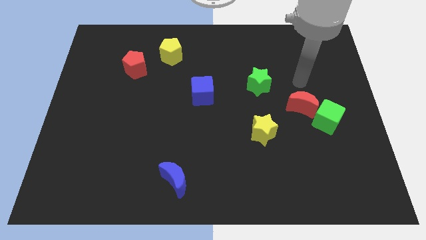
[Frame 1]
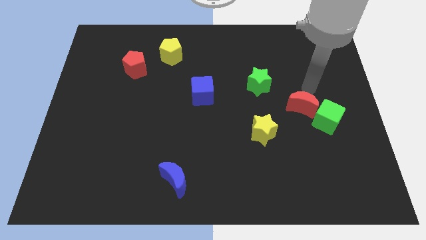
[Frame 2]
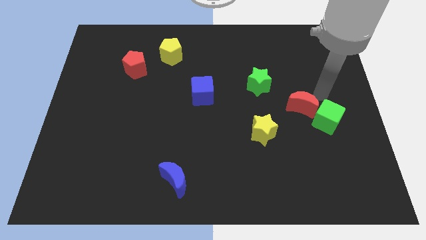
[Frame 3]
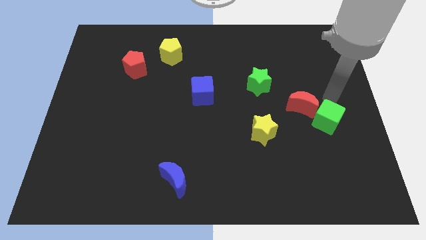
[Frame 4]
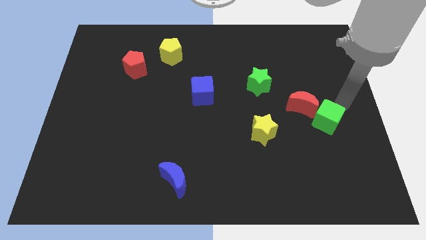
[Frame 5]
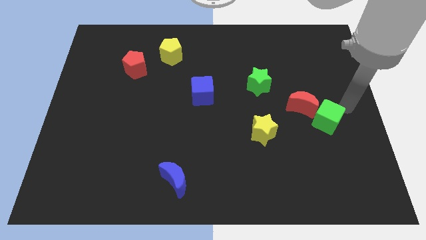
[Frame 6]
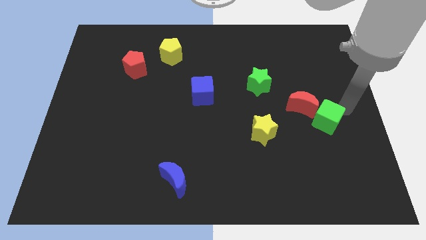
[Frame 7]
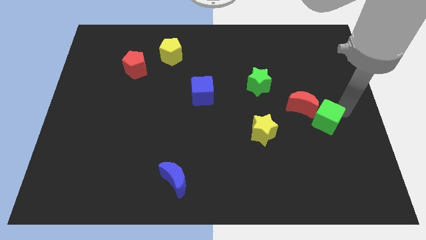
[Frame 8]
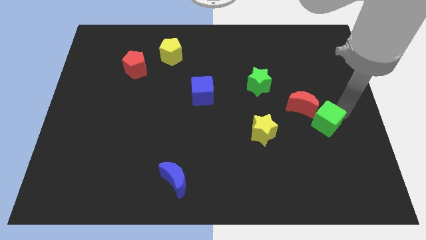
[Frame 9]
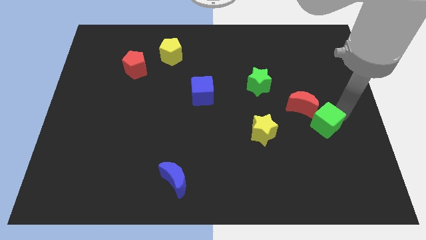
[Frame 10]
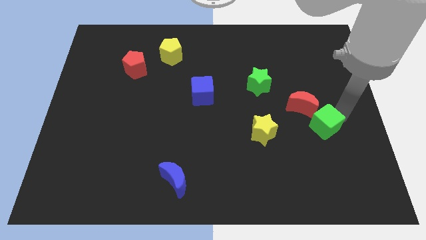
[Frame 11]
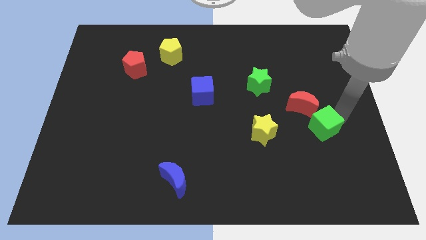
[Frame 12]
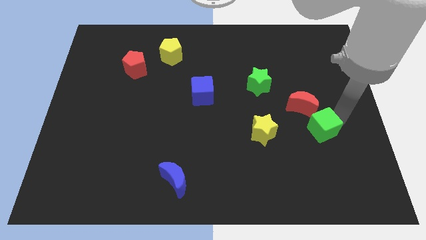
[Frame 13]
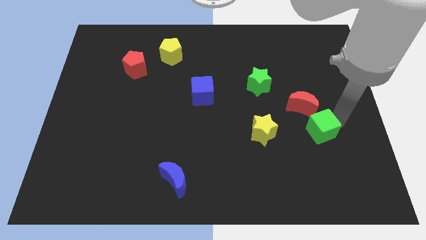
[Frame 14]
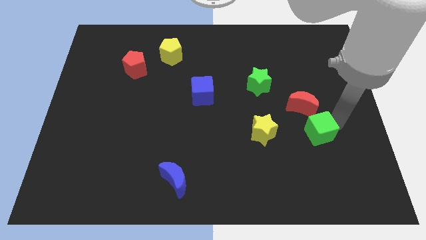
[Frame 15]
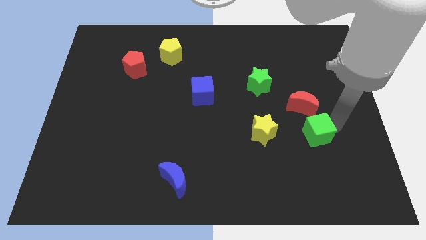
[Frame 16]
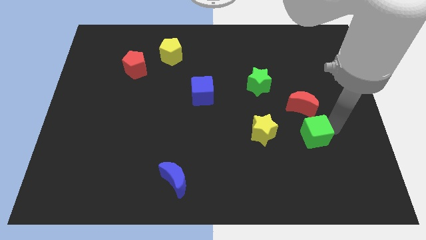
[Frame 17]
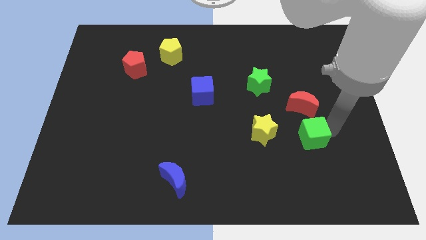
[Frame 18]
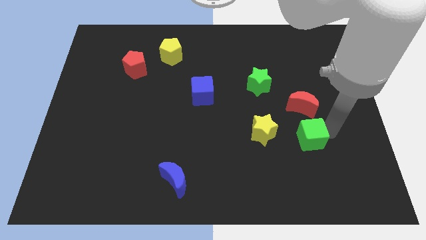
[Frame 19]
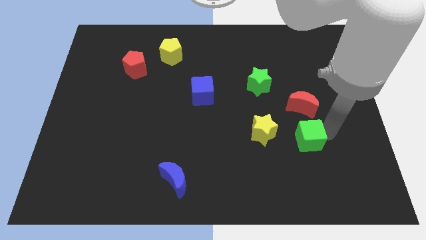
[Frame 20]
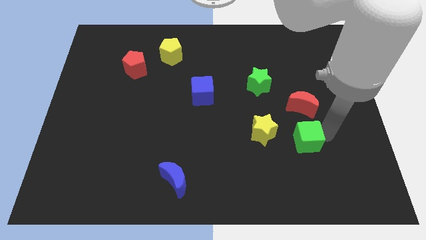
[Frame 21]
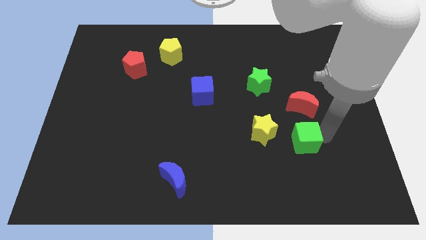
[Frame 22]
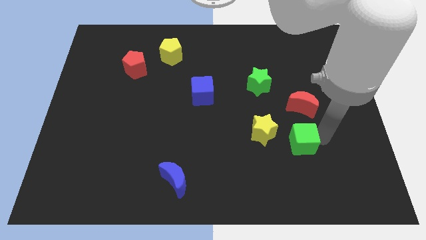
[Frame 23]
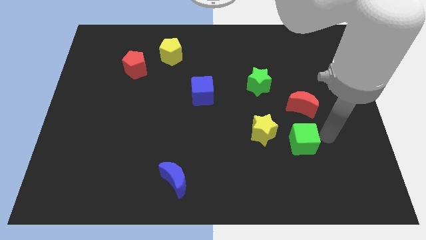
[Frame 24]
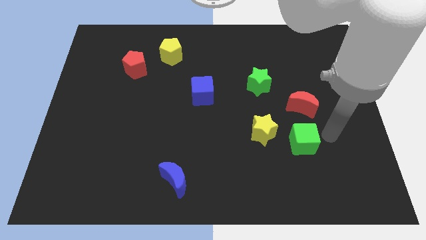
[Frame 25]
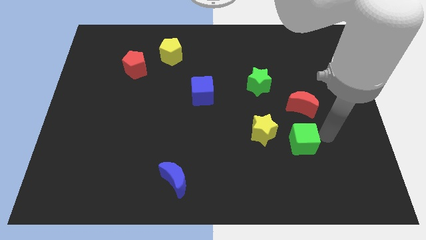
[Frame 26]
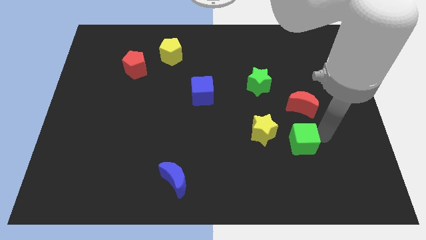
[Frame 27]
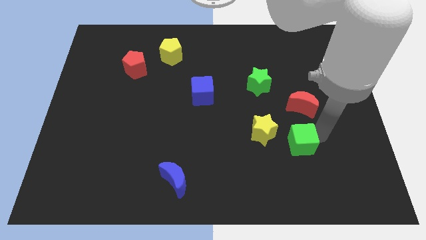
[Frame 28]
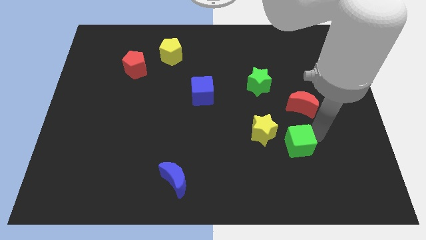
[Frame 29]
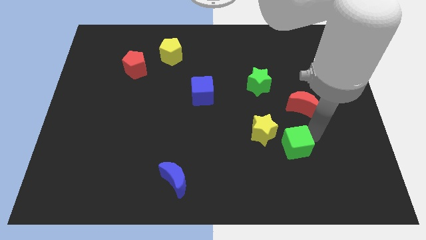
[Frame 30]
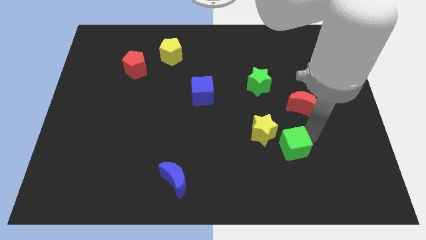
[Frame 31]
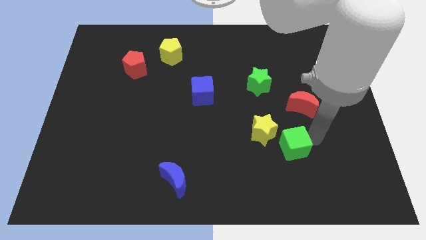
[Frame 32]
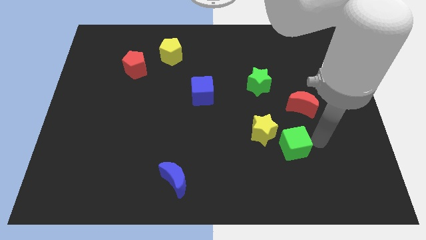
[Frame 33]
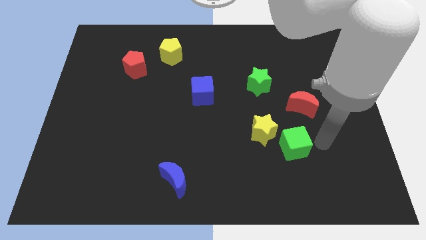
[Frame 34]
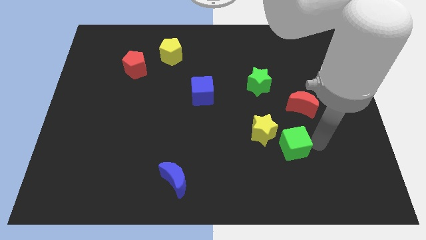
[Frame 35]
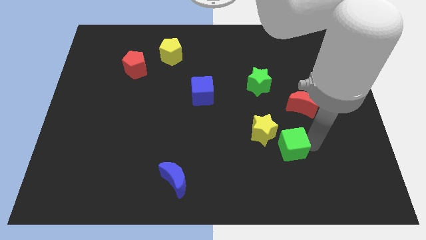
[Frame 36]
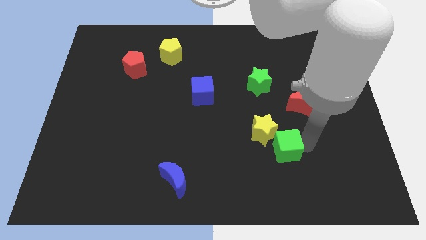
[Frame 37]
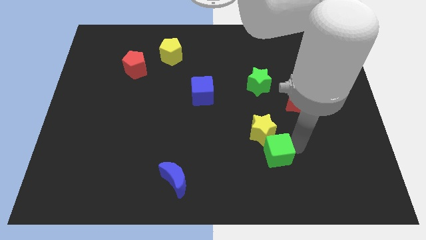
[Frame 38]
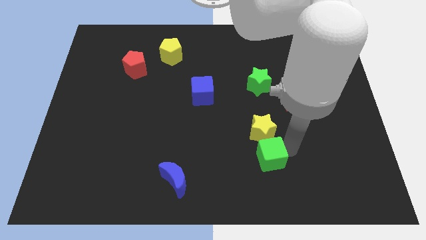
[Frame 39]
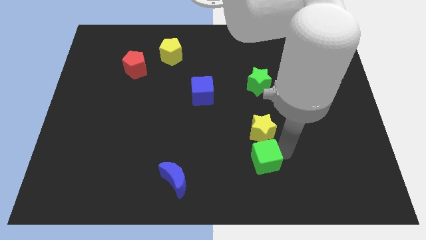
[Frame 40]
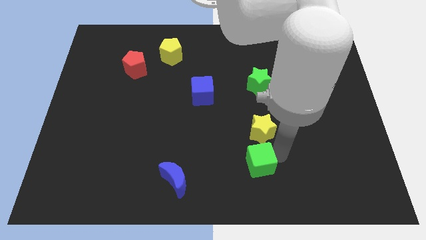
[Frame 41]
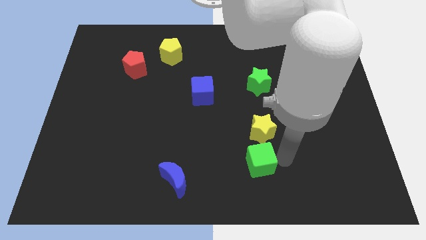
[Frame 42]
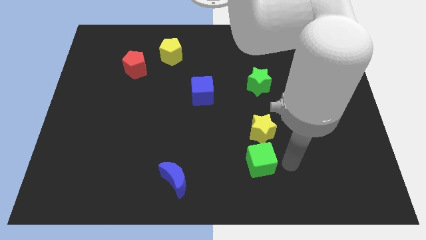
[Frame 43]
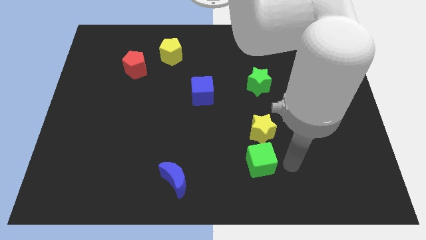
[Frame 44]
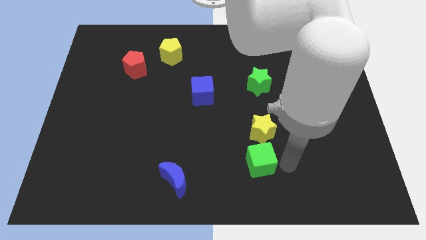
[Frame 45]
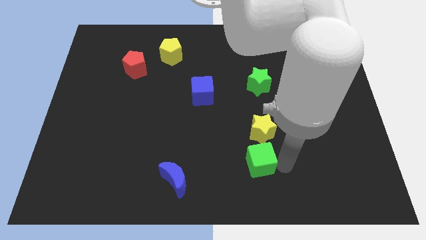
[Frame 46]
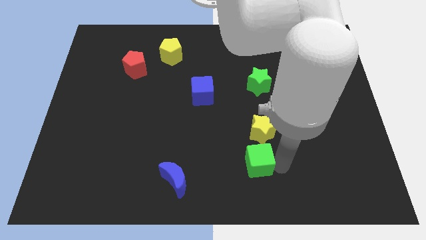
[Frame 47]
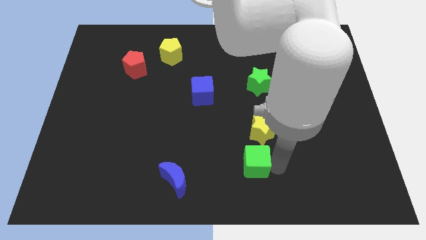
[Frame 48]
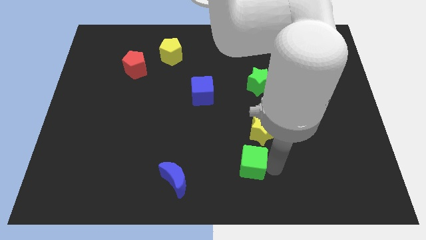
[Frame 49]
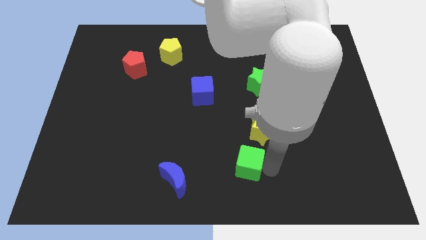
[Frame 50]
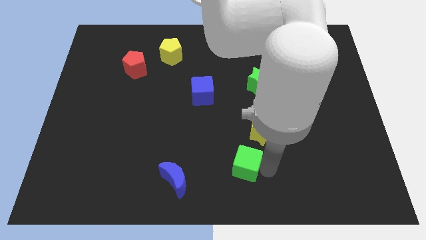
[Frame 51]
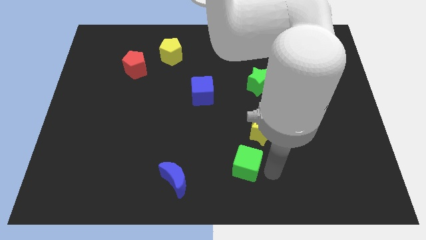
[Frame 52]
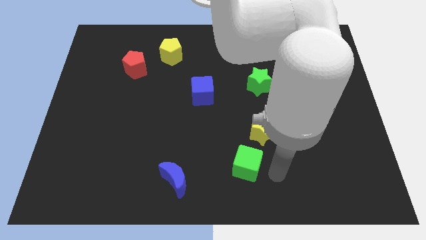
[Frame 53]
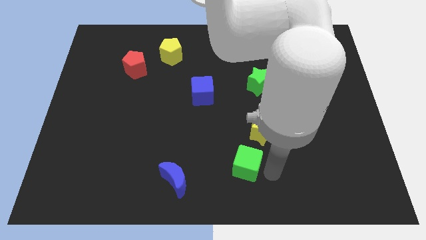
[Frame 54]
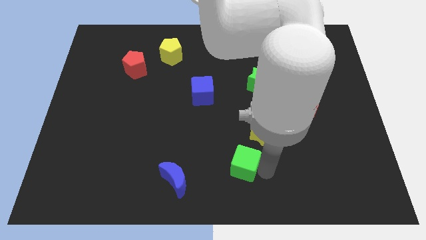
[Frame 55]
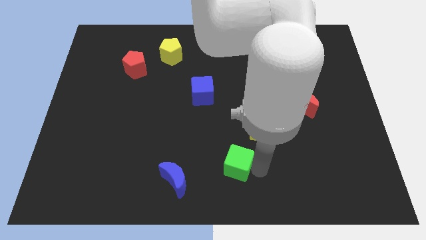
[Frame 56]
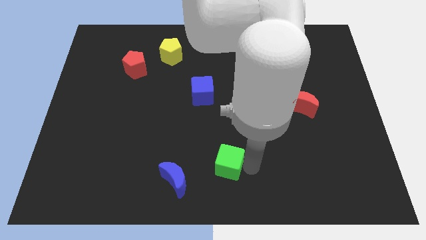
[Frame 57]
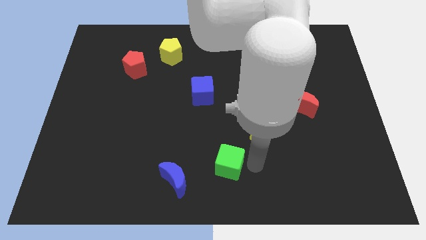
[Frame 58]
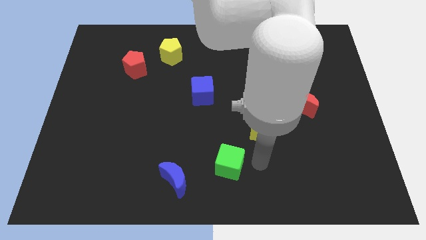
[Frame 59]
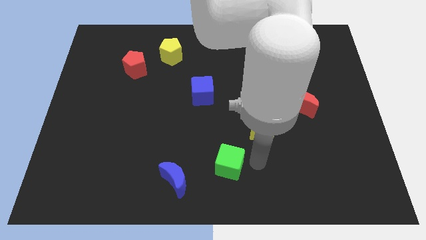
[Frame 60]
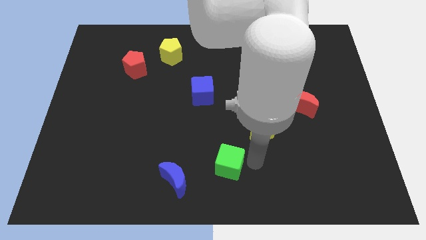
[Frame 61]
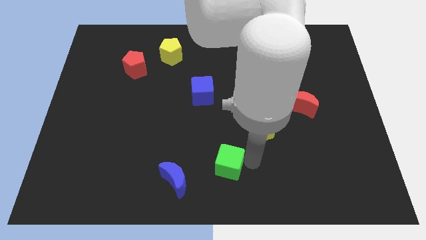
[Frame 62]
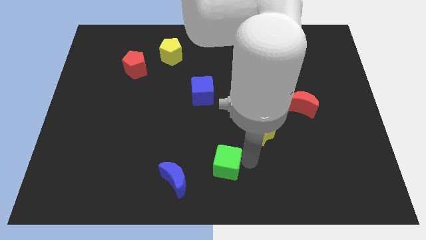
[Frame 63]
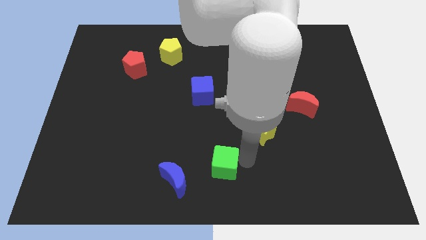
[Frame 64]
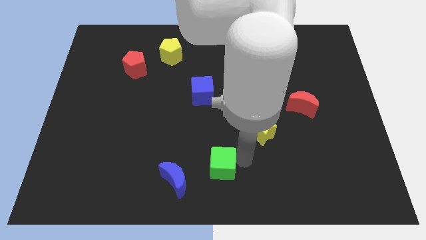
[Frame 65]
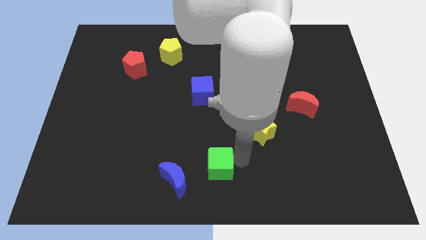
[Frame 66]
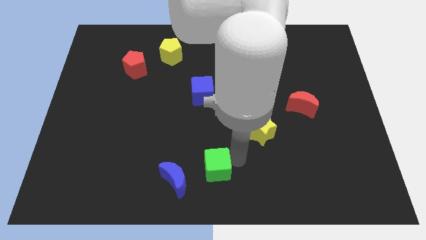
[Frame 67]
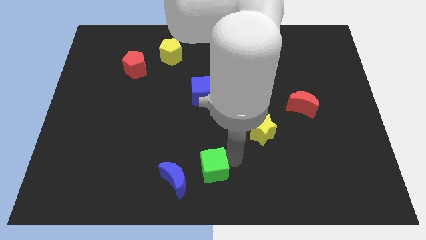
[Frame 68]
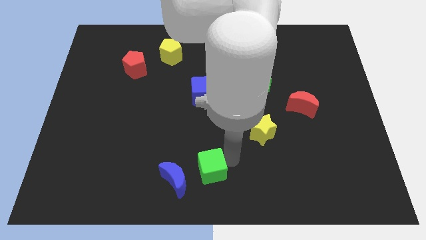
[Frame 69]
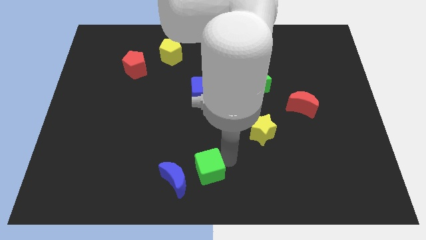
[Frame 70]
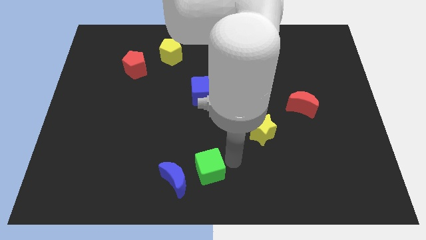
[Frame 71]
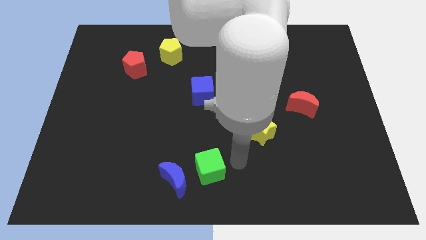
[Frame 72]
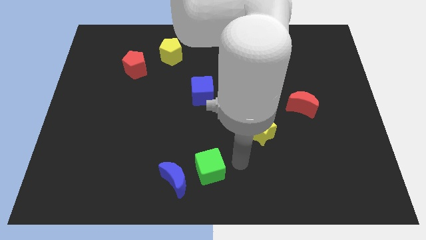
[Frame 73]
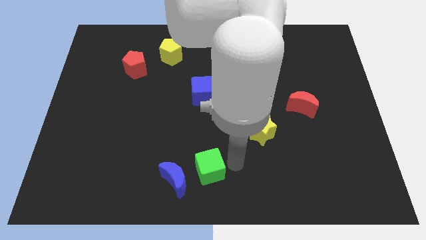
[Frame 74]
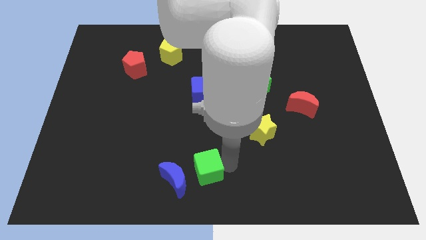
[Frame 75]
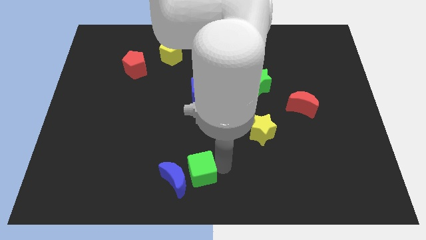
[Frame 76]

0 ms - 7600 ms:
slide the green cube next to the blue moon
